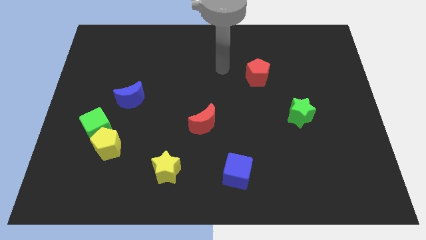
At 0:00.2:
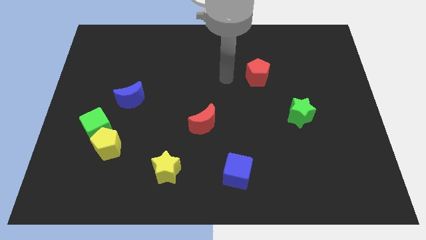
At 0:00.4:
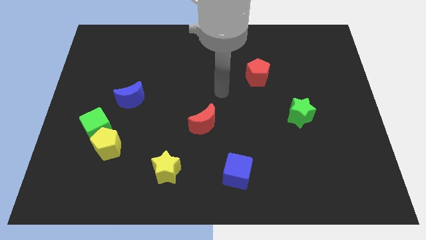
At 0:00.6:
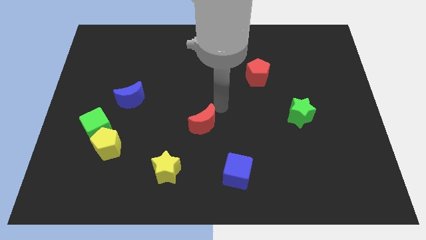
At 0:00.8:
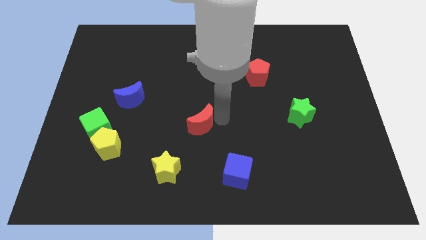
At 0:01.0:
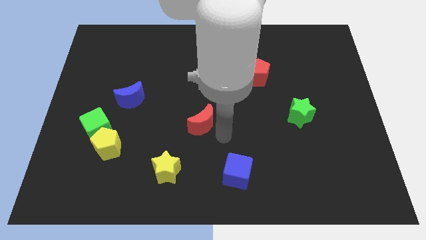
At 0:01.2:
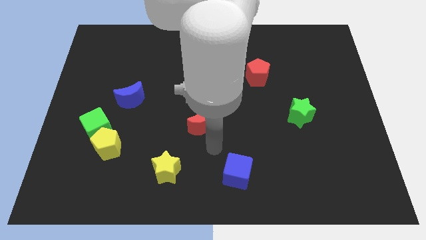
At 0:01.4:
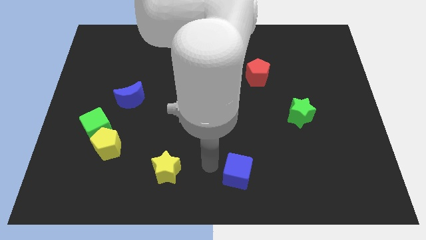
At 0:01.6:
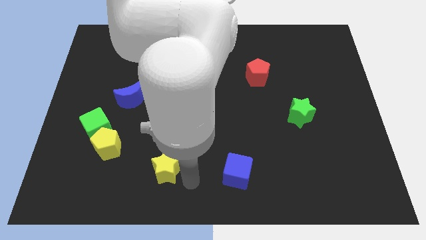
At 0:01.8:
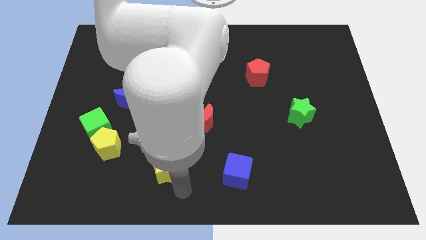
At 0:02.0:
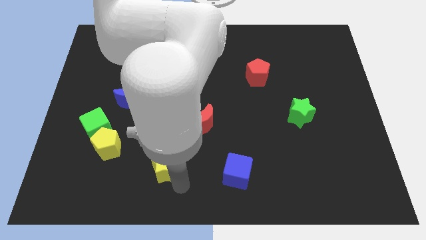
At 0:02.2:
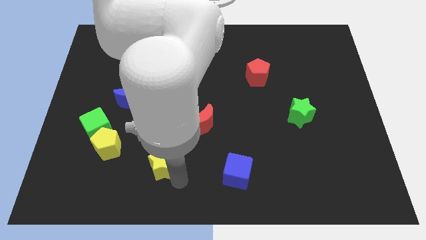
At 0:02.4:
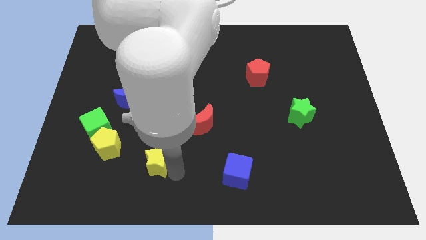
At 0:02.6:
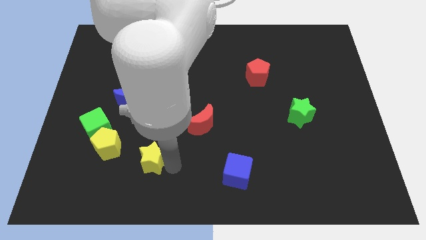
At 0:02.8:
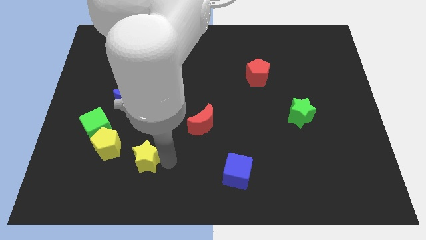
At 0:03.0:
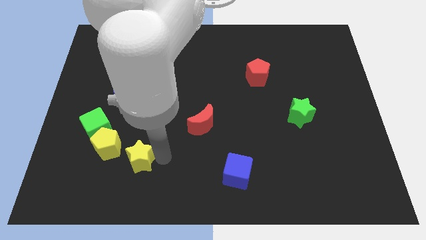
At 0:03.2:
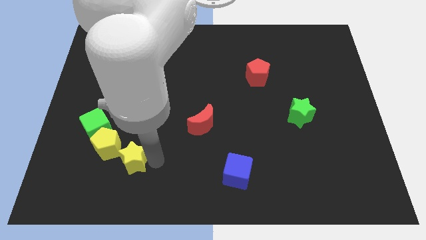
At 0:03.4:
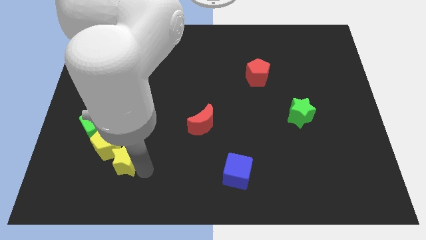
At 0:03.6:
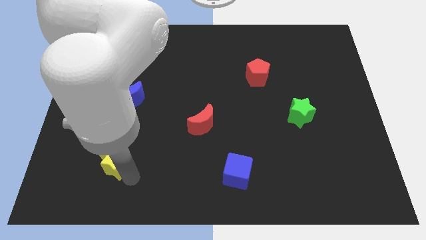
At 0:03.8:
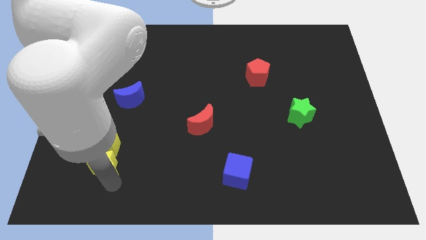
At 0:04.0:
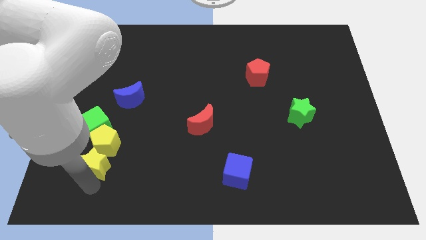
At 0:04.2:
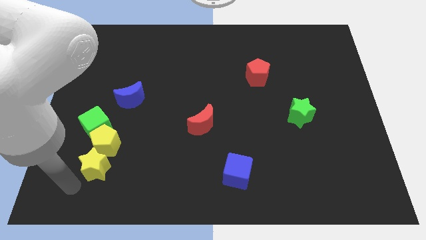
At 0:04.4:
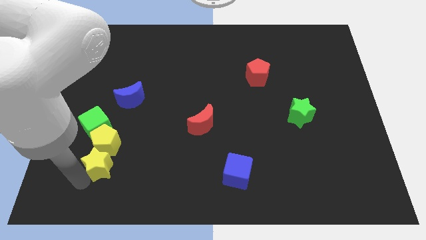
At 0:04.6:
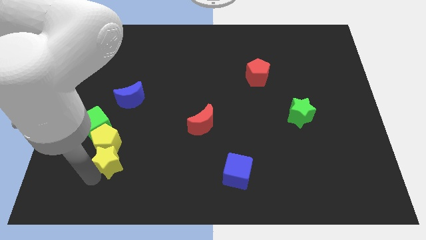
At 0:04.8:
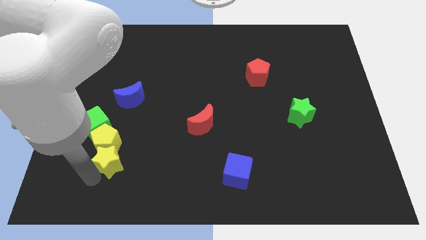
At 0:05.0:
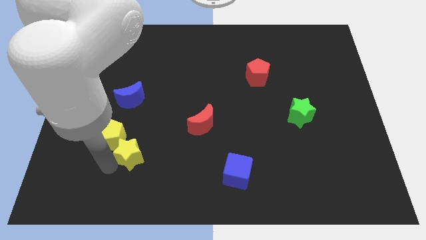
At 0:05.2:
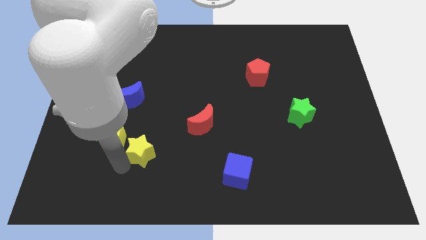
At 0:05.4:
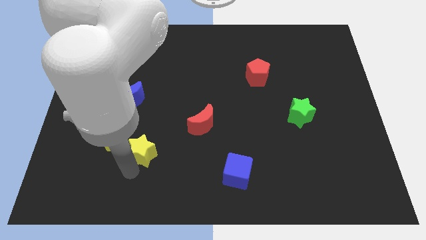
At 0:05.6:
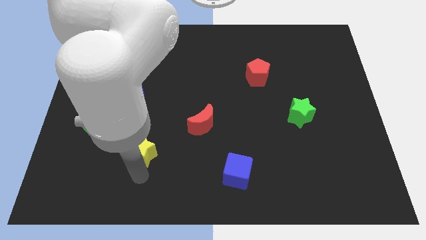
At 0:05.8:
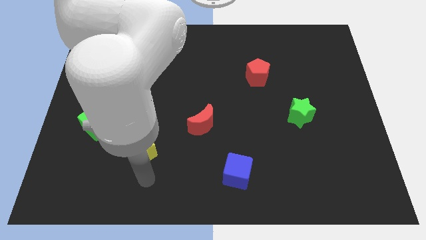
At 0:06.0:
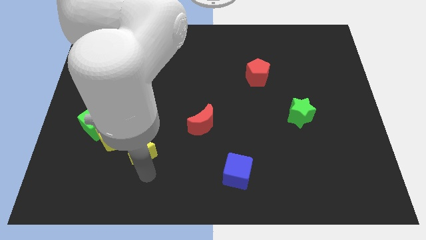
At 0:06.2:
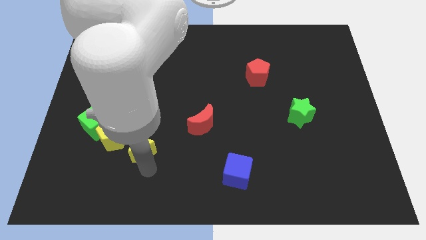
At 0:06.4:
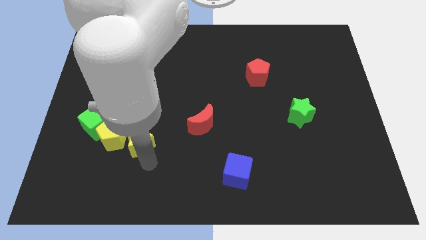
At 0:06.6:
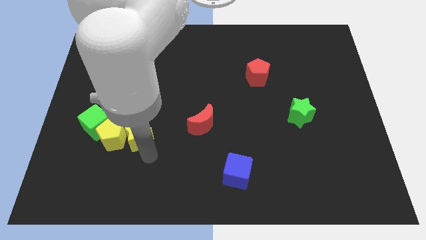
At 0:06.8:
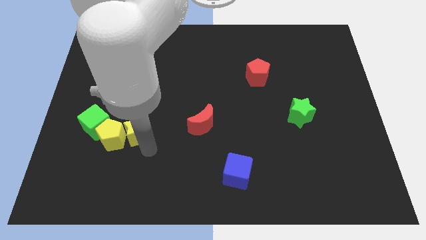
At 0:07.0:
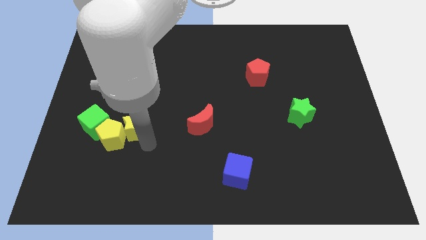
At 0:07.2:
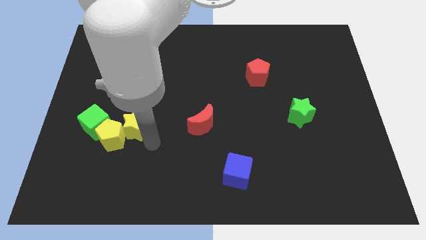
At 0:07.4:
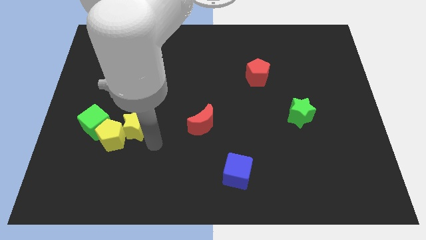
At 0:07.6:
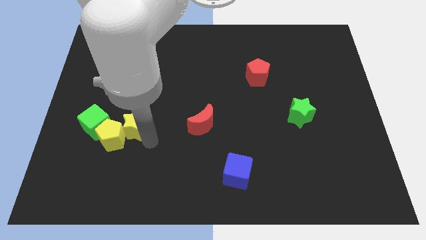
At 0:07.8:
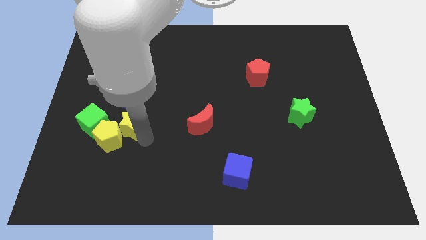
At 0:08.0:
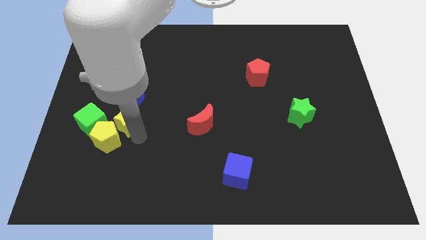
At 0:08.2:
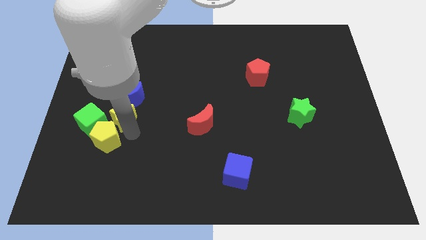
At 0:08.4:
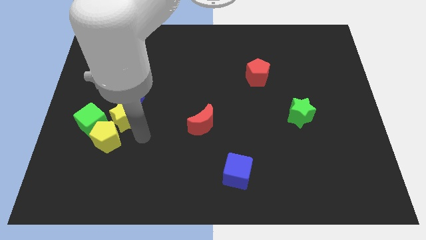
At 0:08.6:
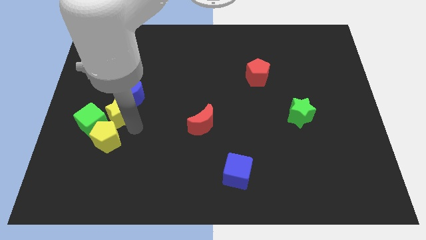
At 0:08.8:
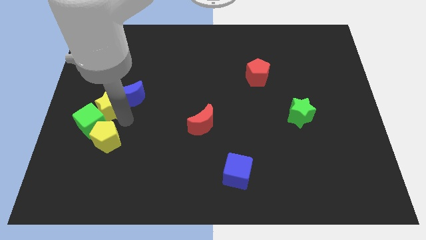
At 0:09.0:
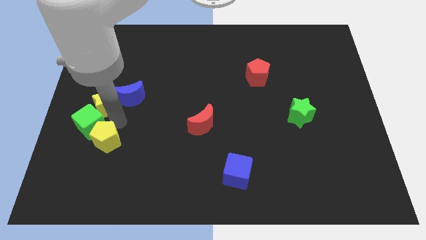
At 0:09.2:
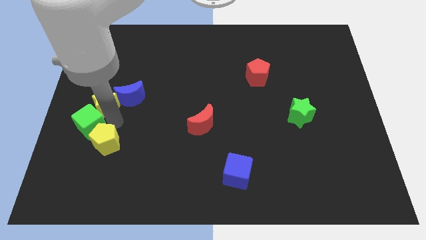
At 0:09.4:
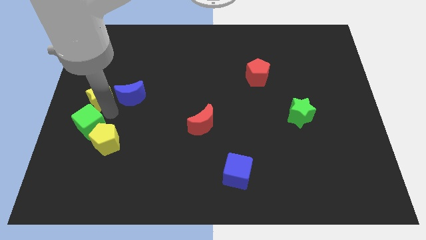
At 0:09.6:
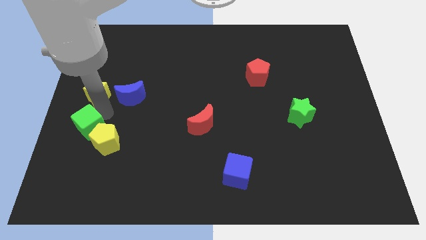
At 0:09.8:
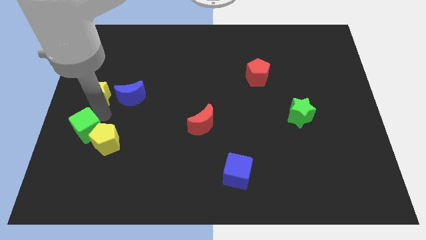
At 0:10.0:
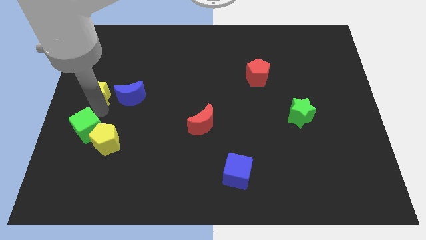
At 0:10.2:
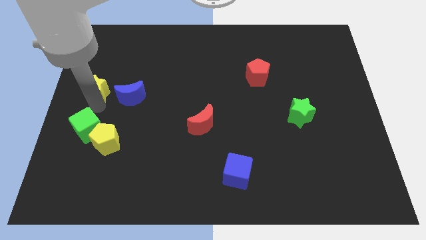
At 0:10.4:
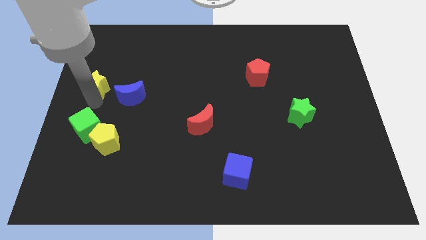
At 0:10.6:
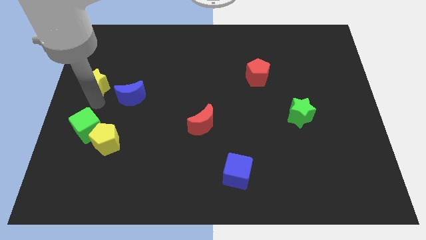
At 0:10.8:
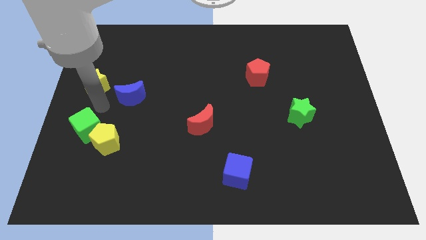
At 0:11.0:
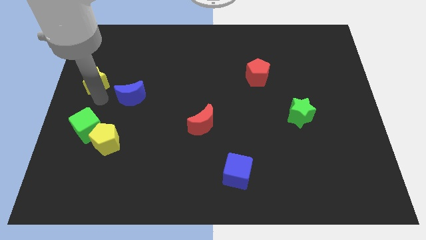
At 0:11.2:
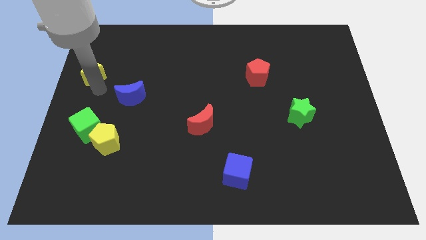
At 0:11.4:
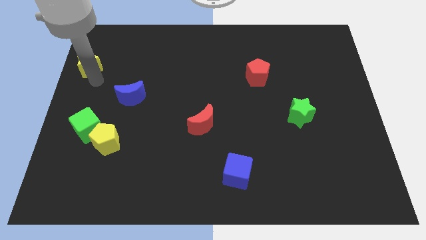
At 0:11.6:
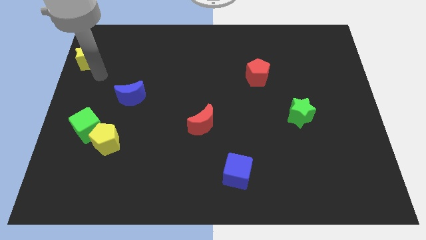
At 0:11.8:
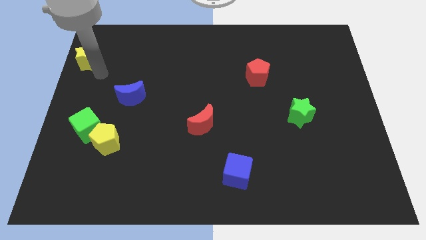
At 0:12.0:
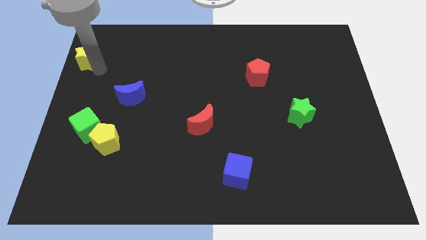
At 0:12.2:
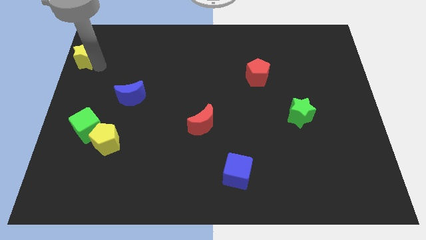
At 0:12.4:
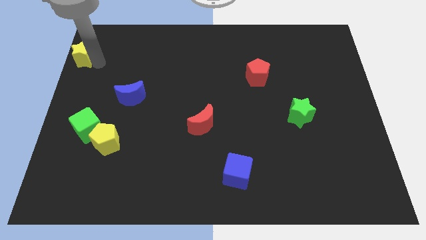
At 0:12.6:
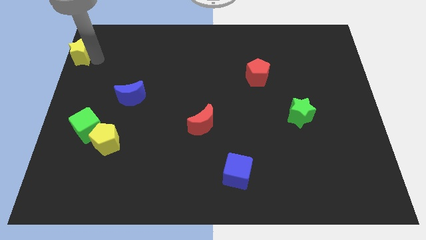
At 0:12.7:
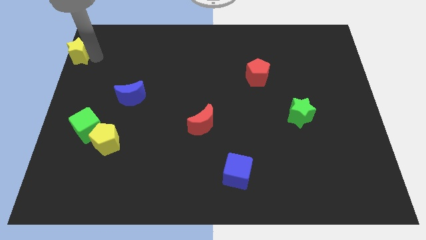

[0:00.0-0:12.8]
put the yellow star to the top left of the board
